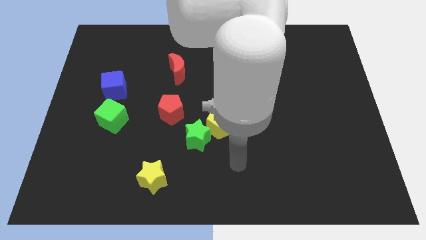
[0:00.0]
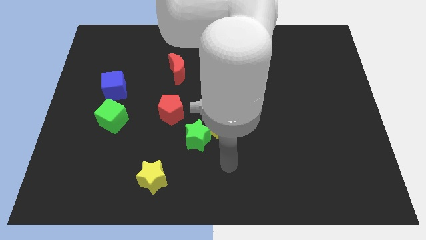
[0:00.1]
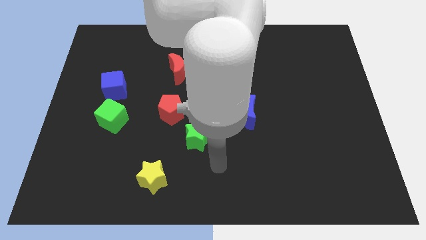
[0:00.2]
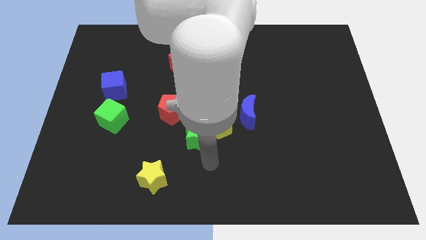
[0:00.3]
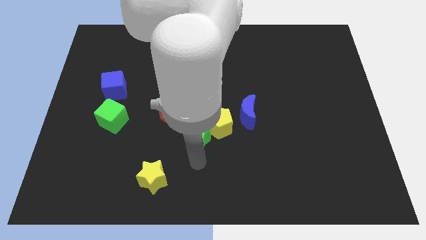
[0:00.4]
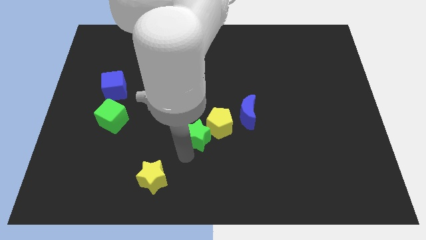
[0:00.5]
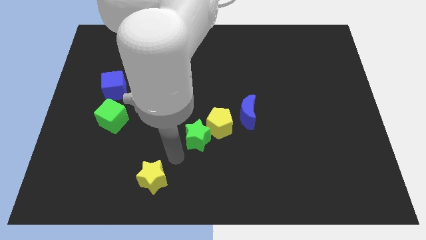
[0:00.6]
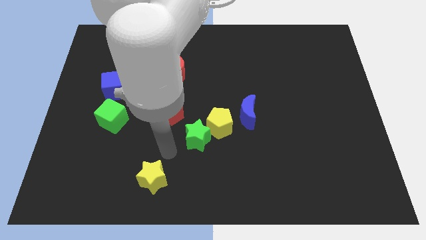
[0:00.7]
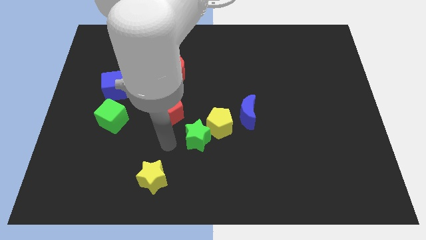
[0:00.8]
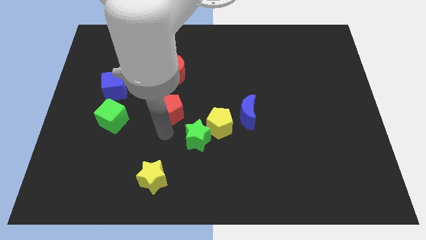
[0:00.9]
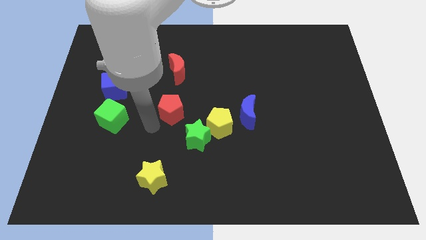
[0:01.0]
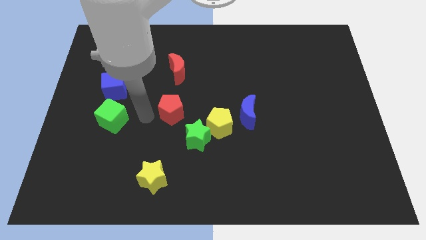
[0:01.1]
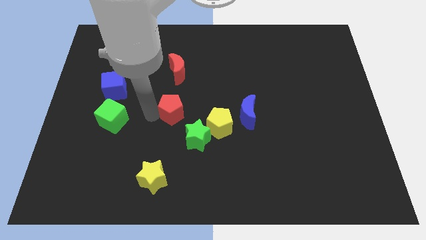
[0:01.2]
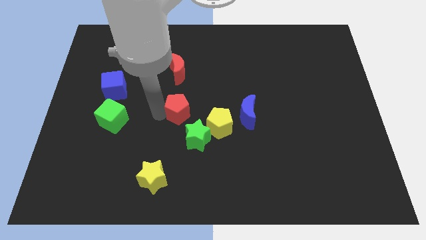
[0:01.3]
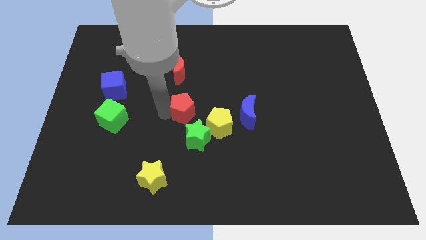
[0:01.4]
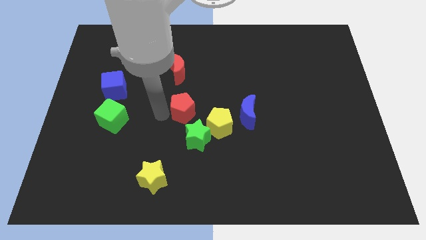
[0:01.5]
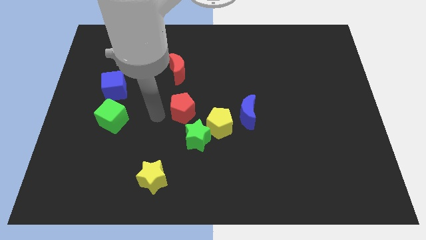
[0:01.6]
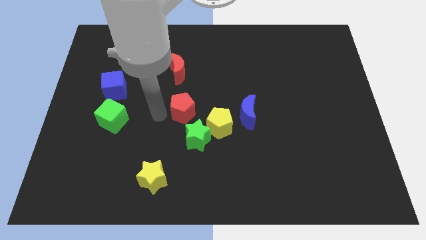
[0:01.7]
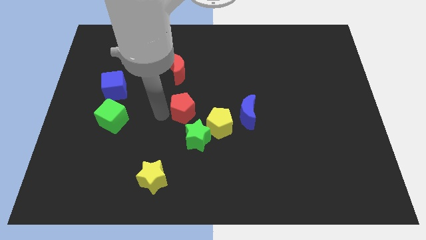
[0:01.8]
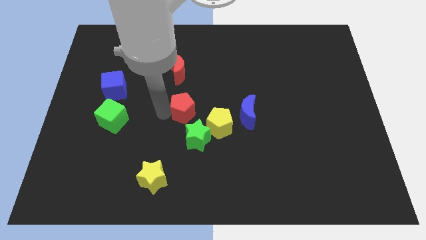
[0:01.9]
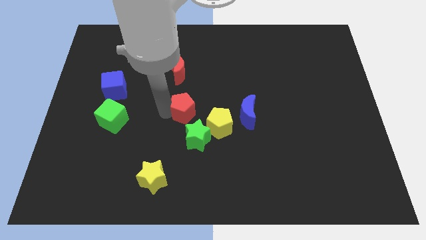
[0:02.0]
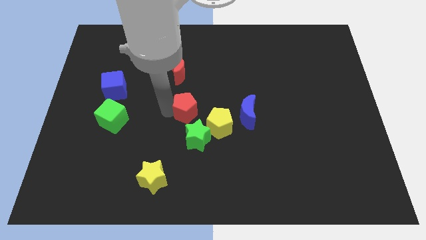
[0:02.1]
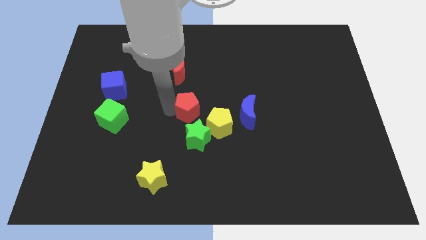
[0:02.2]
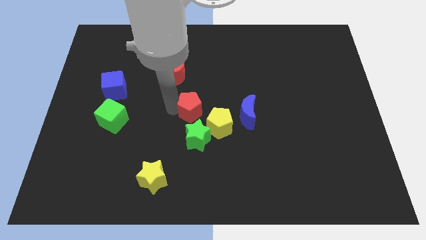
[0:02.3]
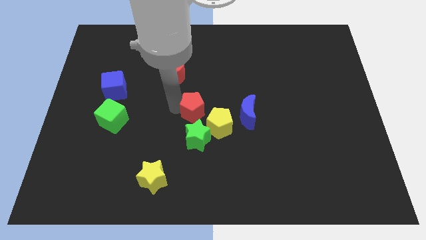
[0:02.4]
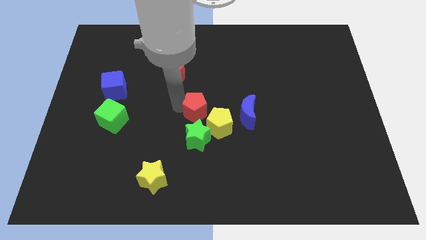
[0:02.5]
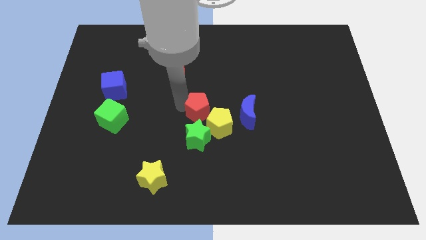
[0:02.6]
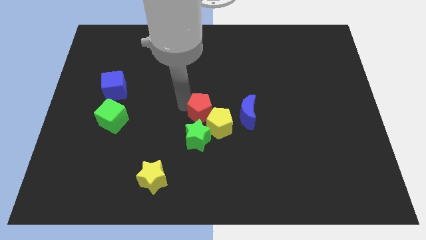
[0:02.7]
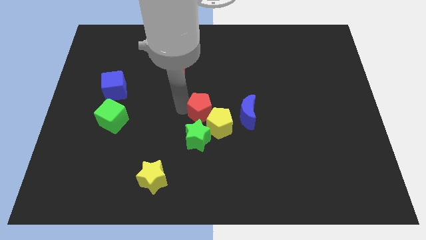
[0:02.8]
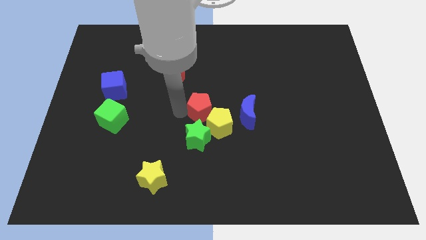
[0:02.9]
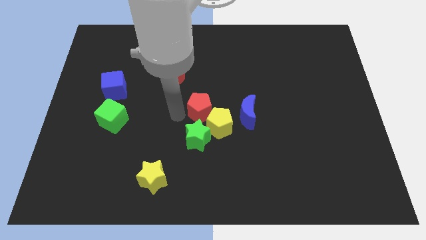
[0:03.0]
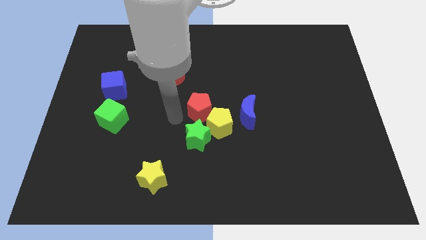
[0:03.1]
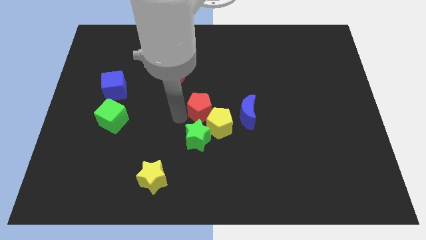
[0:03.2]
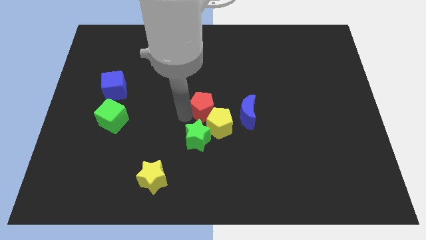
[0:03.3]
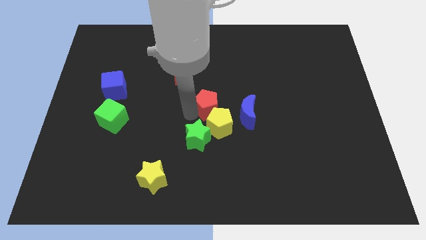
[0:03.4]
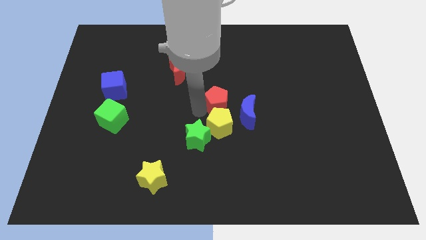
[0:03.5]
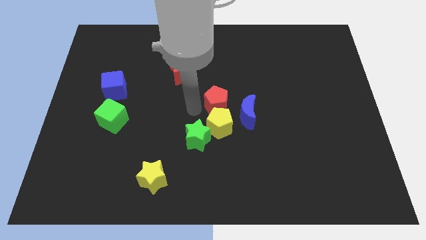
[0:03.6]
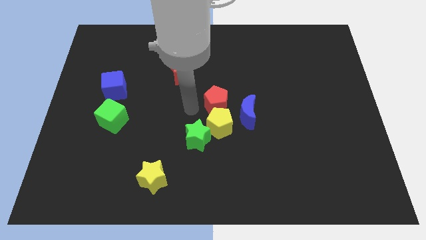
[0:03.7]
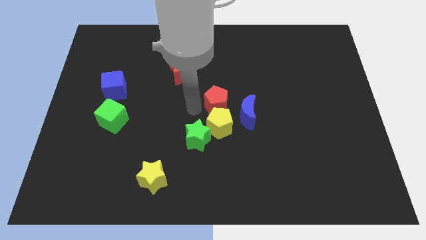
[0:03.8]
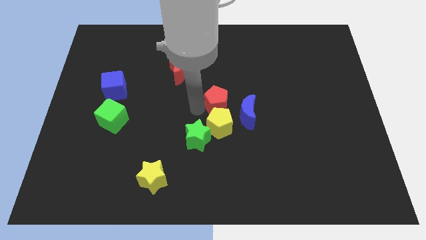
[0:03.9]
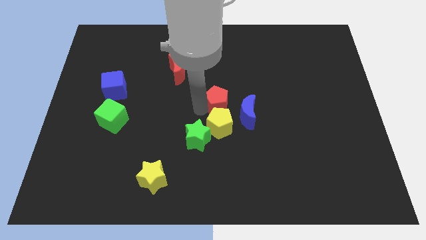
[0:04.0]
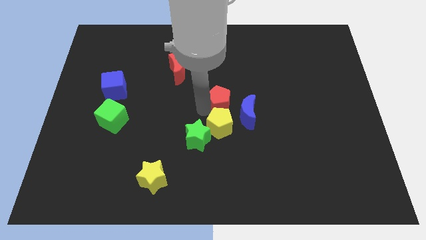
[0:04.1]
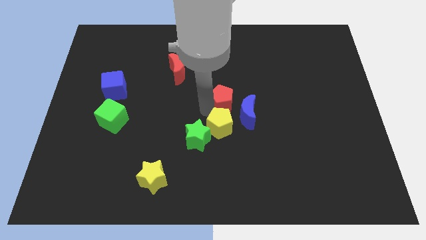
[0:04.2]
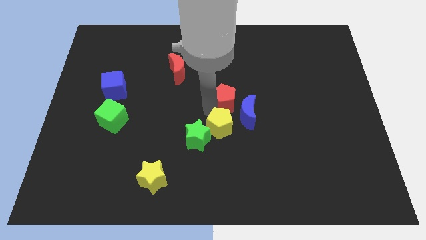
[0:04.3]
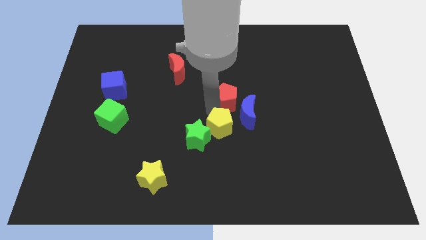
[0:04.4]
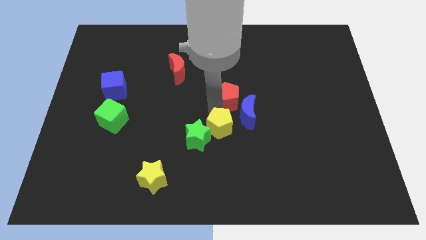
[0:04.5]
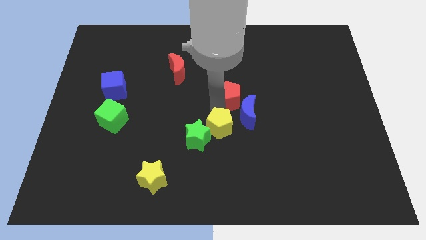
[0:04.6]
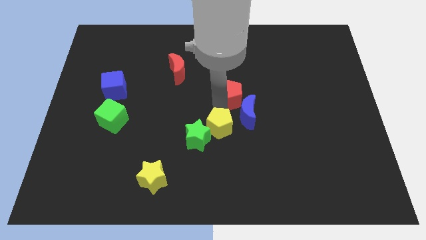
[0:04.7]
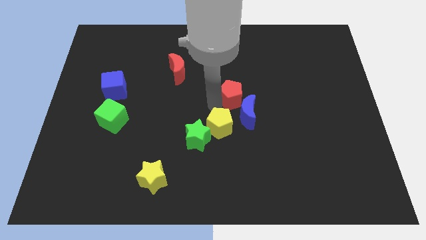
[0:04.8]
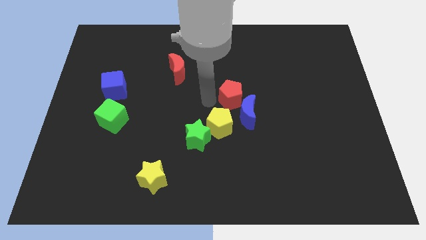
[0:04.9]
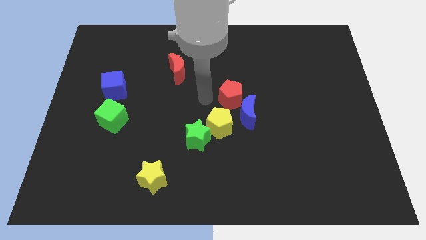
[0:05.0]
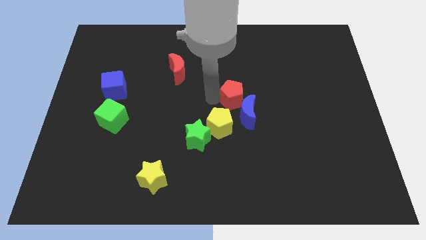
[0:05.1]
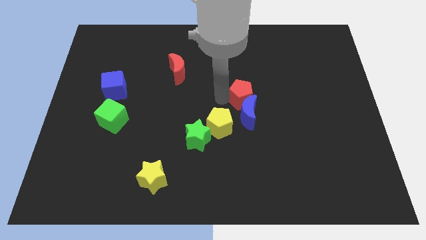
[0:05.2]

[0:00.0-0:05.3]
put the red pentagon diagonally up and to the right of the blue moon

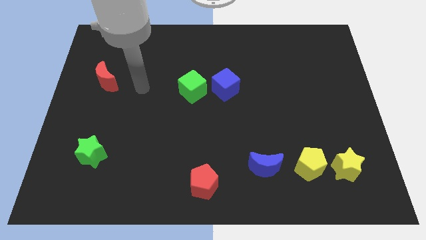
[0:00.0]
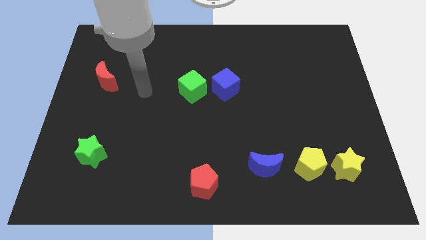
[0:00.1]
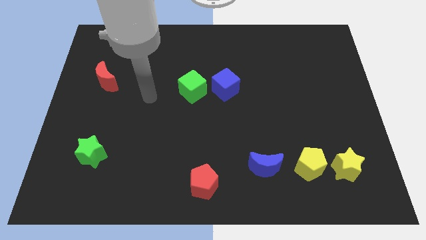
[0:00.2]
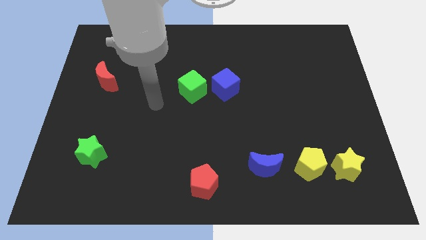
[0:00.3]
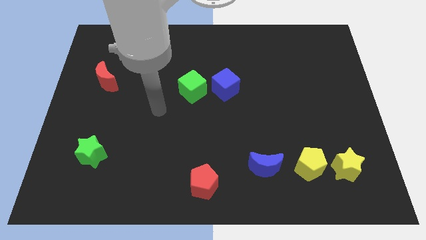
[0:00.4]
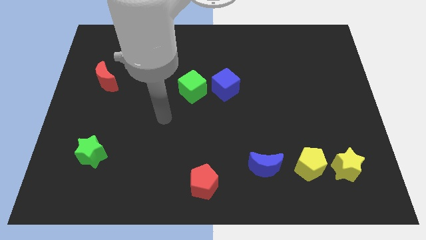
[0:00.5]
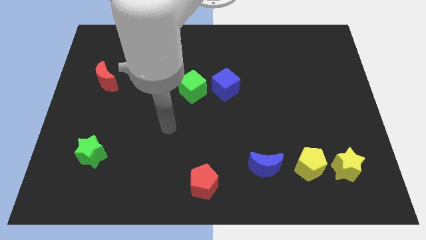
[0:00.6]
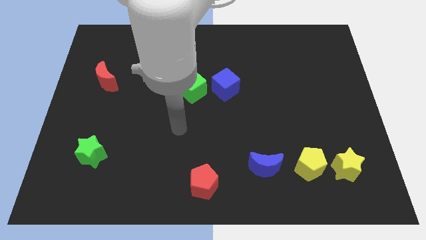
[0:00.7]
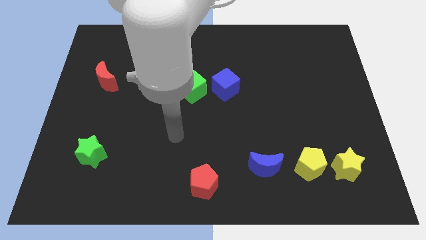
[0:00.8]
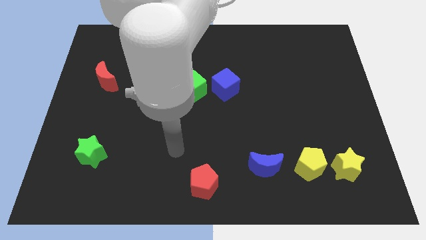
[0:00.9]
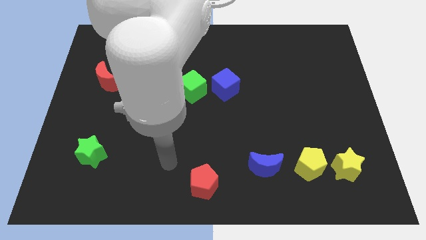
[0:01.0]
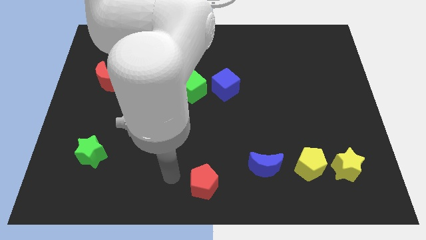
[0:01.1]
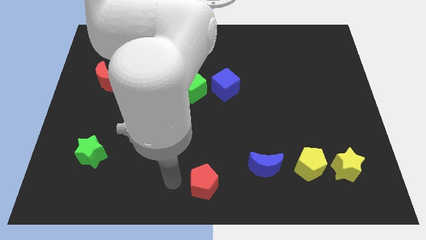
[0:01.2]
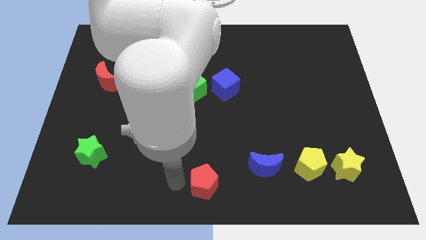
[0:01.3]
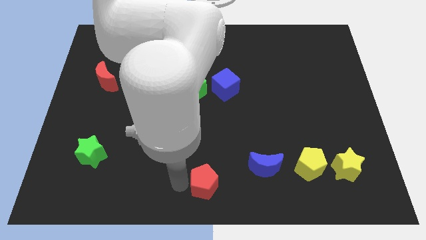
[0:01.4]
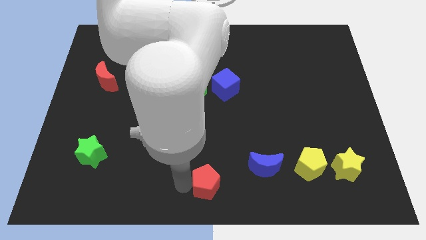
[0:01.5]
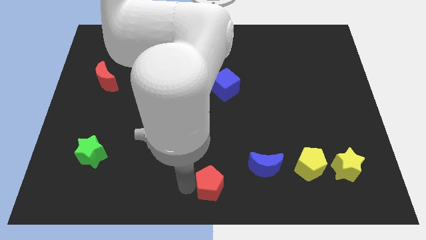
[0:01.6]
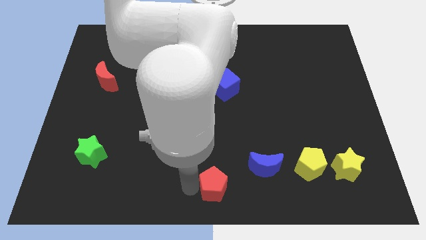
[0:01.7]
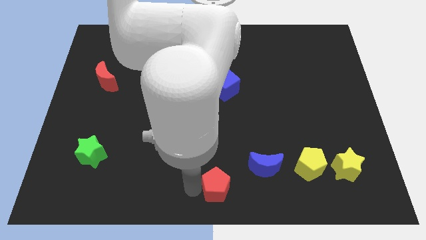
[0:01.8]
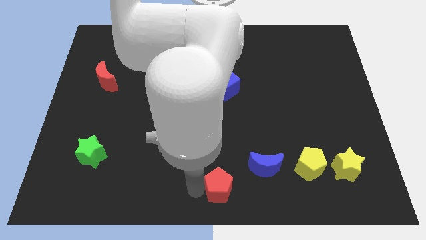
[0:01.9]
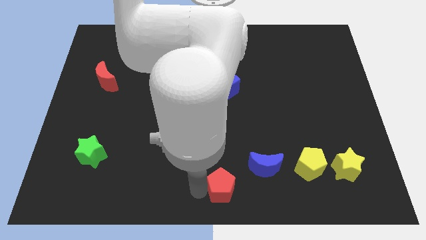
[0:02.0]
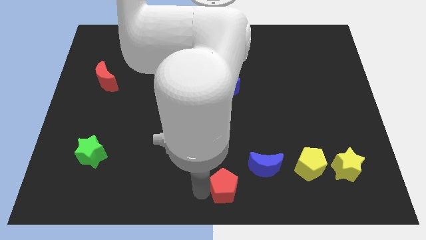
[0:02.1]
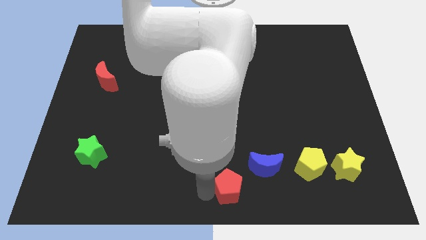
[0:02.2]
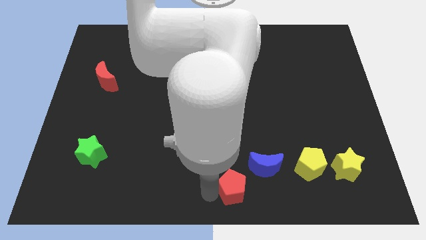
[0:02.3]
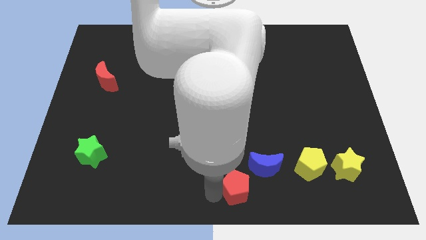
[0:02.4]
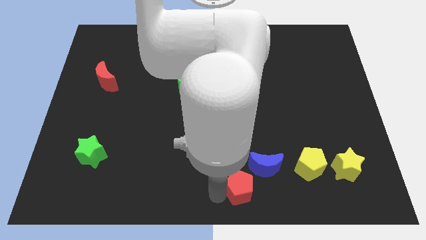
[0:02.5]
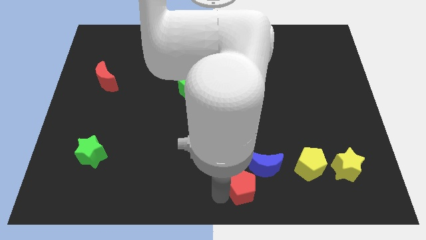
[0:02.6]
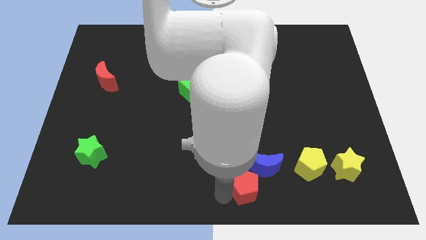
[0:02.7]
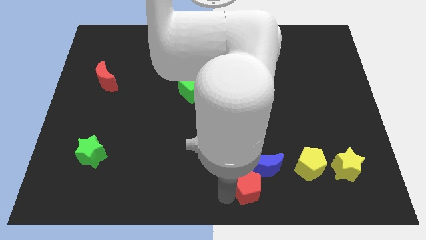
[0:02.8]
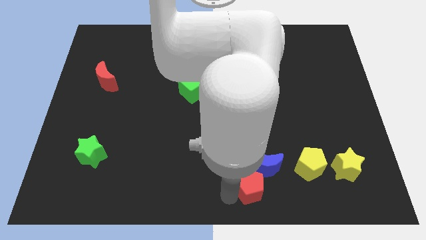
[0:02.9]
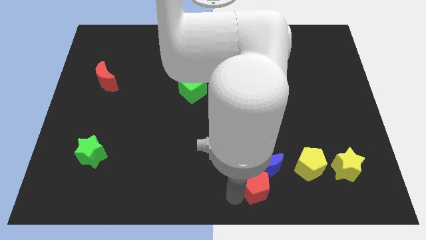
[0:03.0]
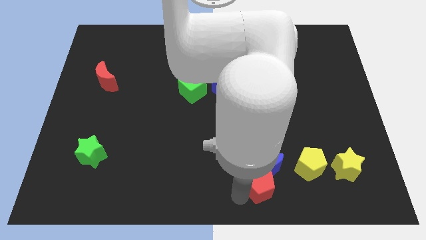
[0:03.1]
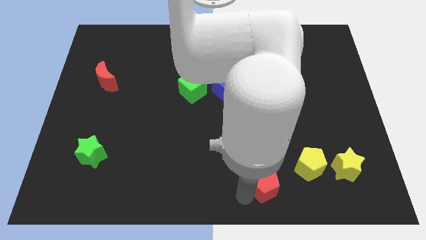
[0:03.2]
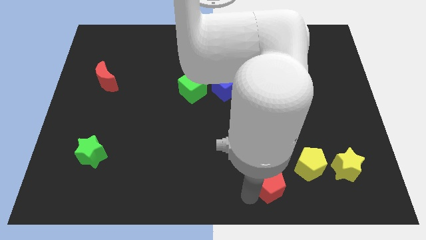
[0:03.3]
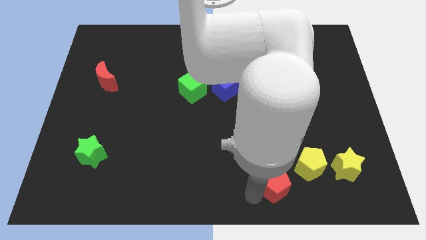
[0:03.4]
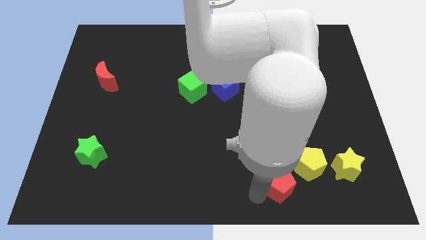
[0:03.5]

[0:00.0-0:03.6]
put the red pentagon to the left side of the yellow star
